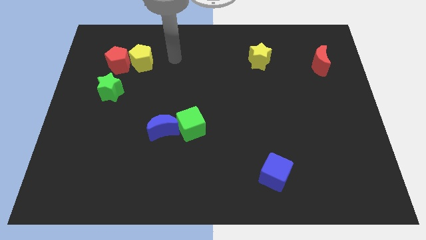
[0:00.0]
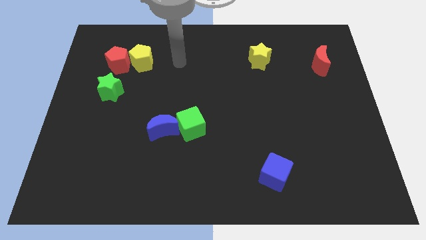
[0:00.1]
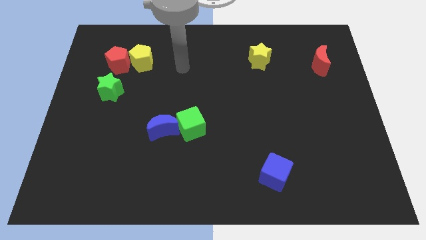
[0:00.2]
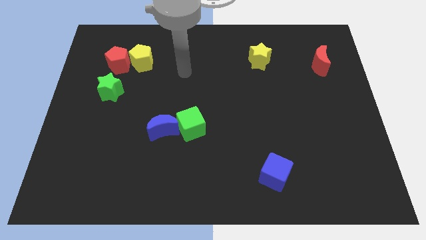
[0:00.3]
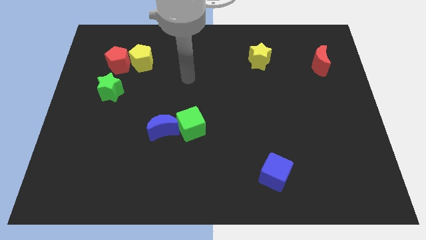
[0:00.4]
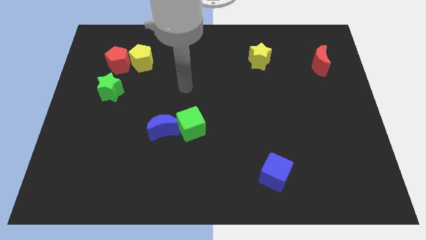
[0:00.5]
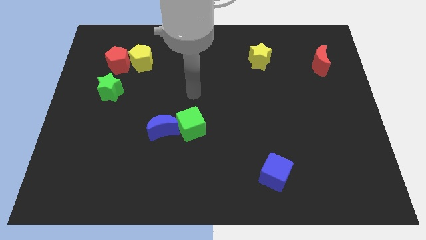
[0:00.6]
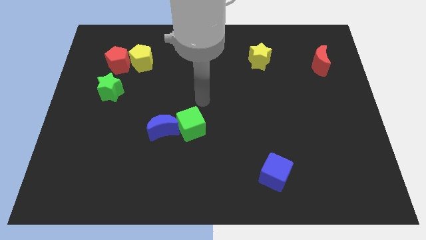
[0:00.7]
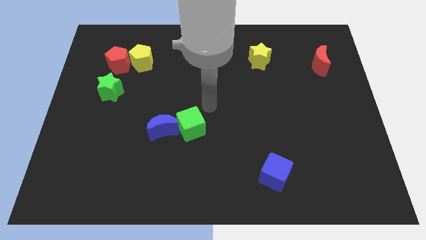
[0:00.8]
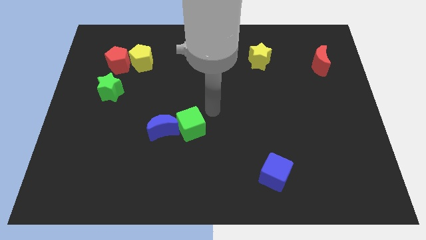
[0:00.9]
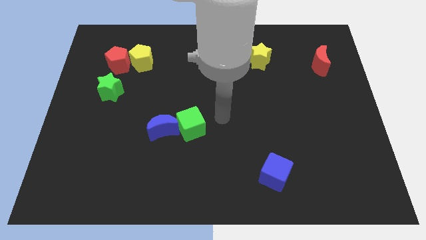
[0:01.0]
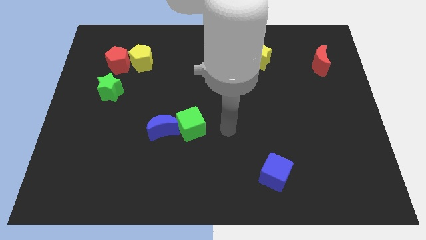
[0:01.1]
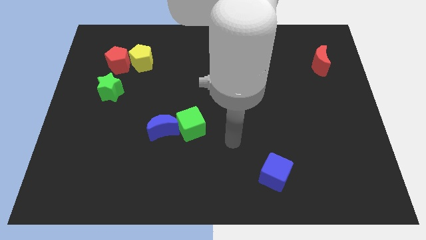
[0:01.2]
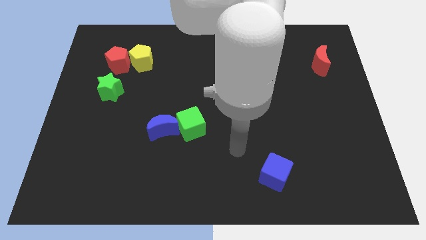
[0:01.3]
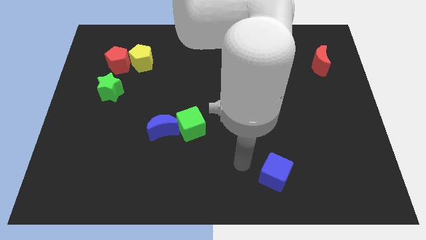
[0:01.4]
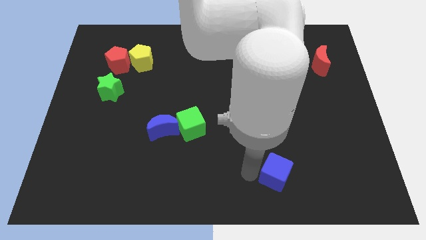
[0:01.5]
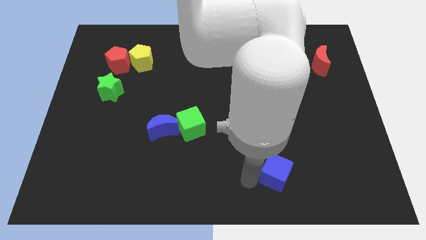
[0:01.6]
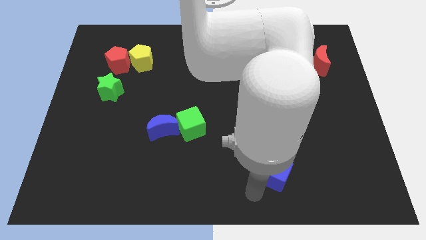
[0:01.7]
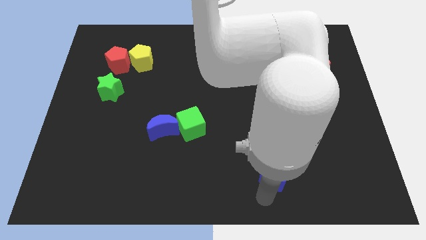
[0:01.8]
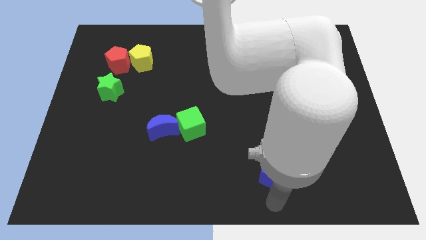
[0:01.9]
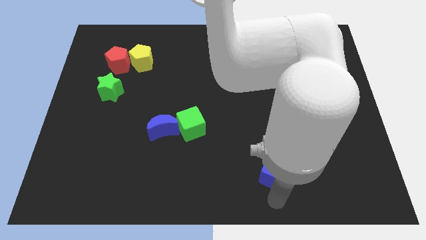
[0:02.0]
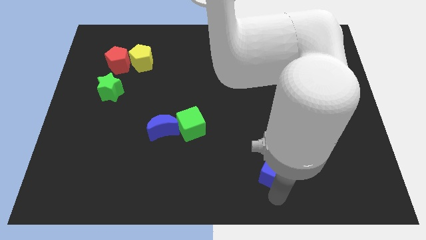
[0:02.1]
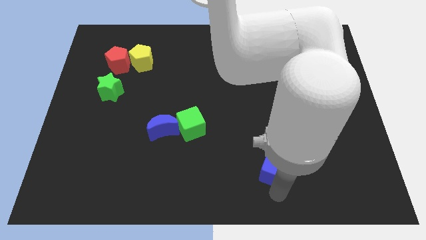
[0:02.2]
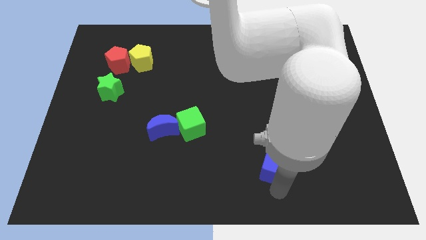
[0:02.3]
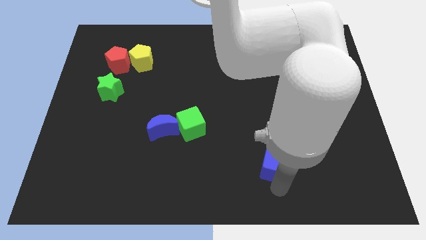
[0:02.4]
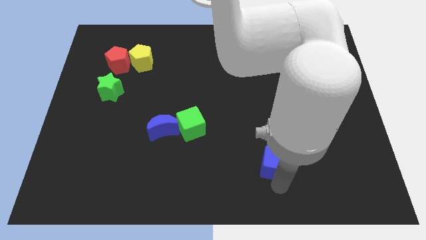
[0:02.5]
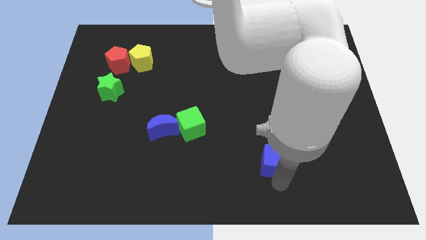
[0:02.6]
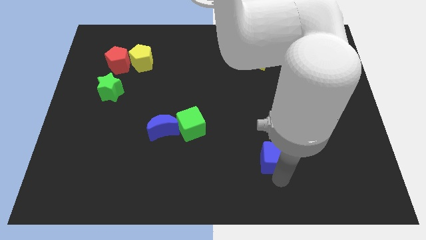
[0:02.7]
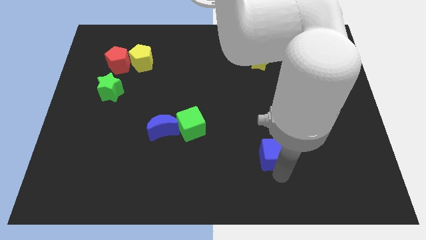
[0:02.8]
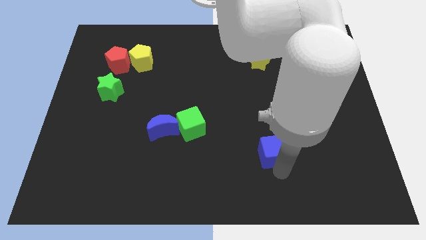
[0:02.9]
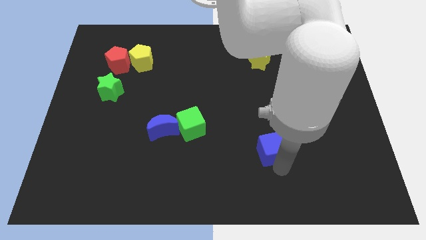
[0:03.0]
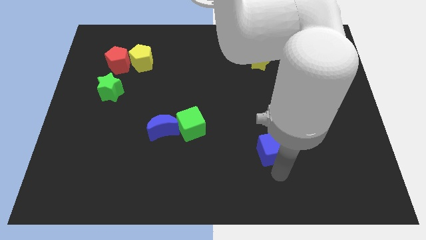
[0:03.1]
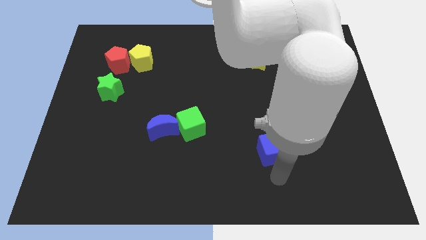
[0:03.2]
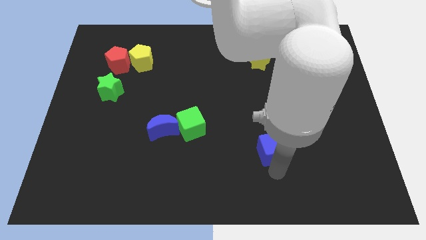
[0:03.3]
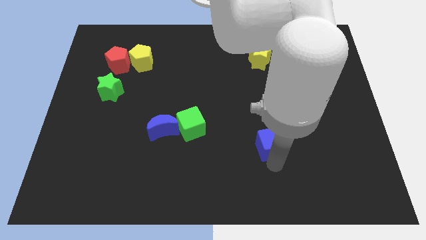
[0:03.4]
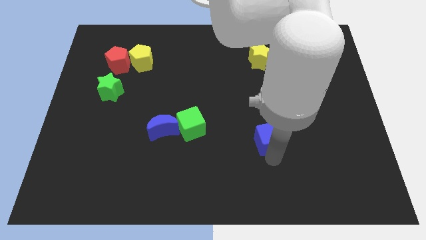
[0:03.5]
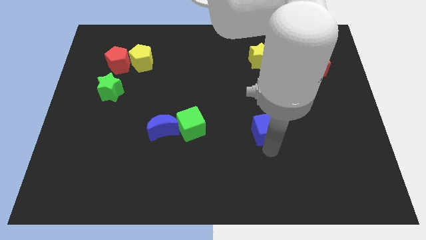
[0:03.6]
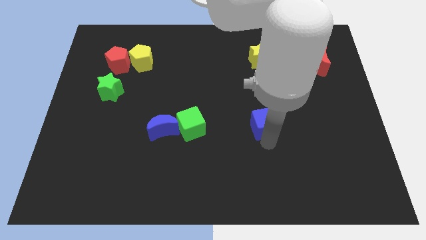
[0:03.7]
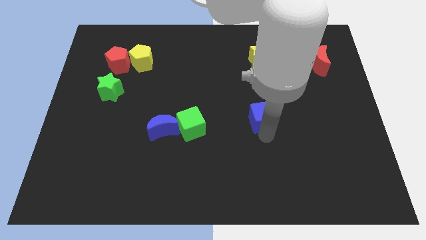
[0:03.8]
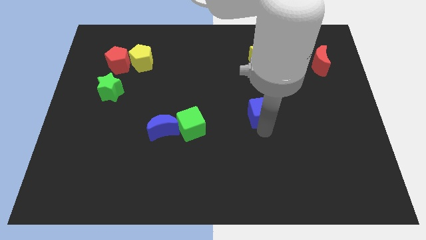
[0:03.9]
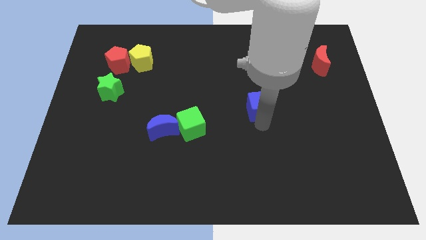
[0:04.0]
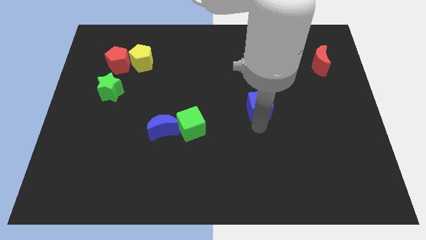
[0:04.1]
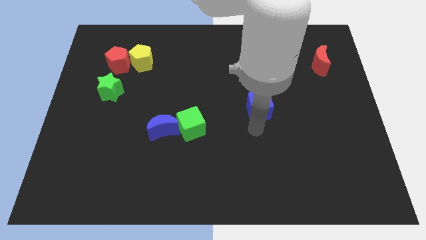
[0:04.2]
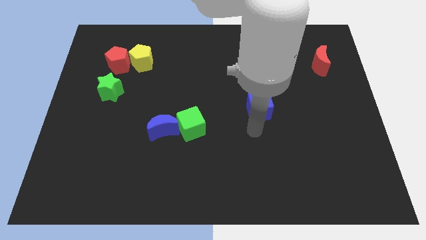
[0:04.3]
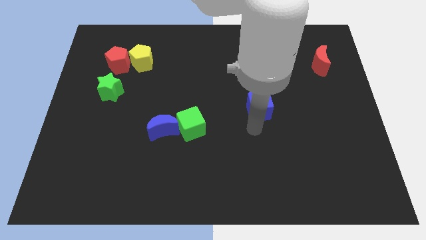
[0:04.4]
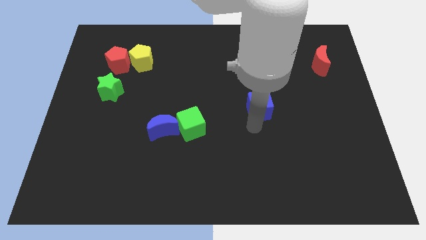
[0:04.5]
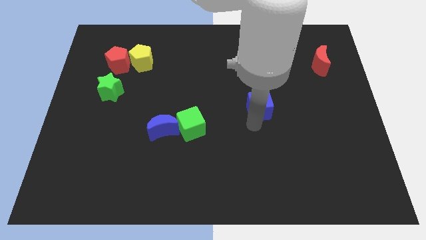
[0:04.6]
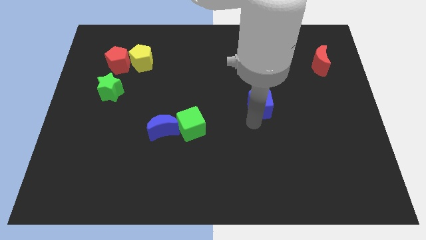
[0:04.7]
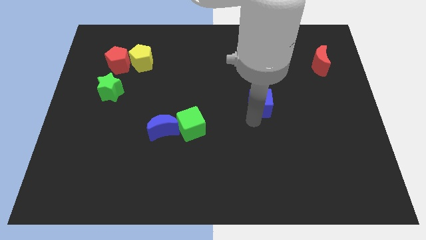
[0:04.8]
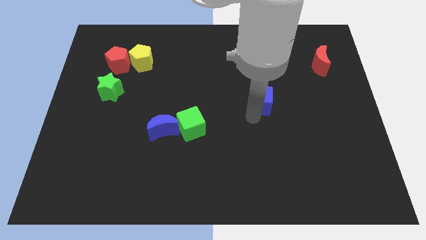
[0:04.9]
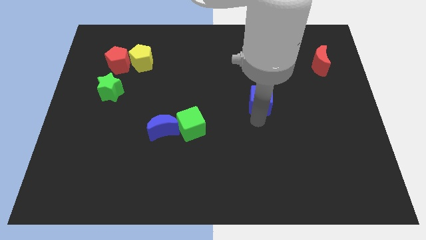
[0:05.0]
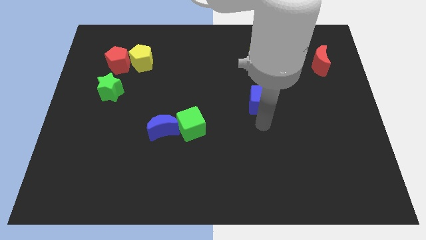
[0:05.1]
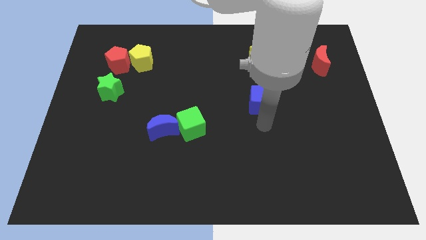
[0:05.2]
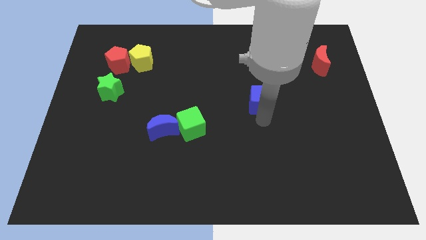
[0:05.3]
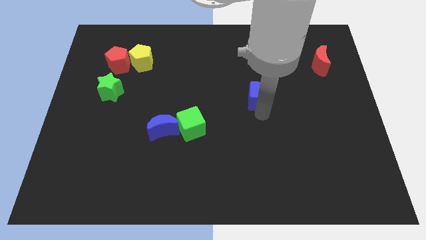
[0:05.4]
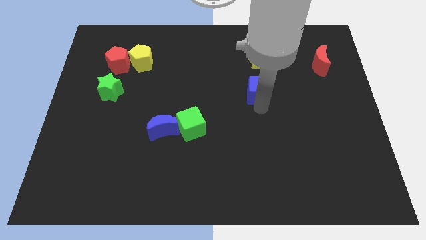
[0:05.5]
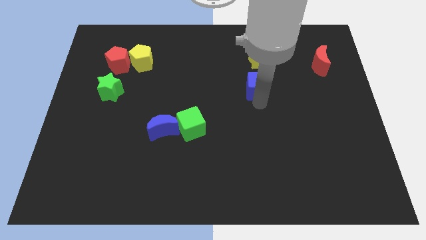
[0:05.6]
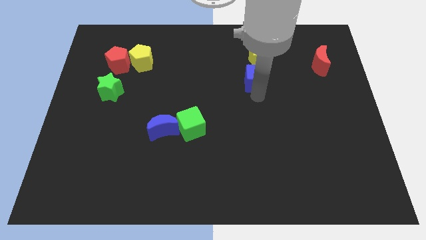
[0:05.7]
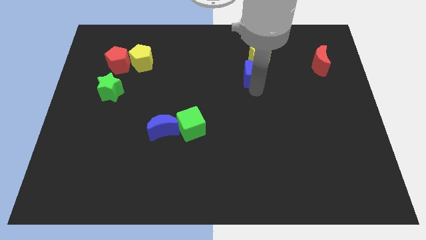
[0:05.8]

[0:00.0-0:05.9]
move the blue cube towards the yellow star

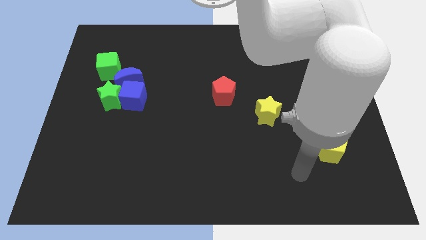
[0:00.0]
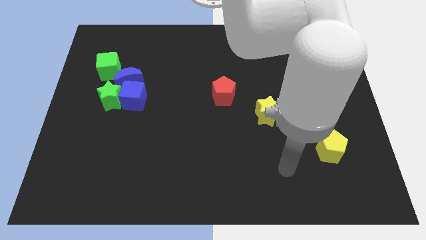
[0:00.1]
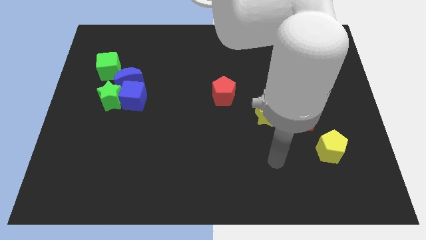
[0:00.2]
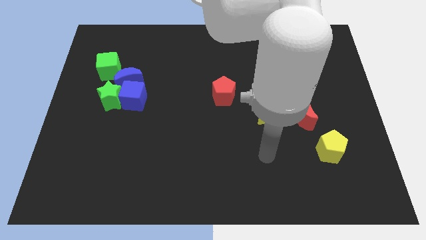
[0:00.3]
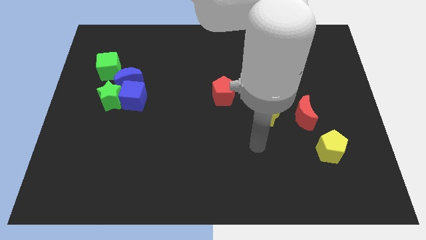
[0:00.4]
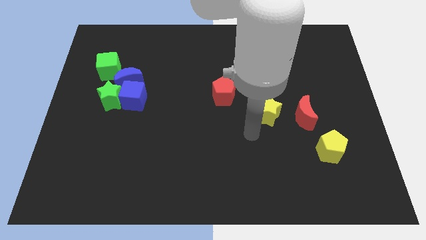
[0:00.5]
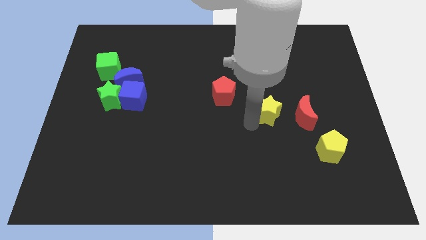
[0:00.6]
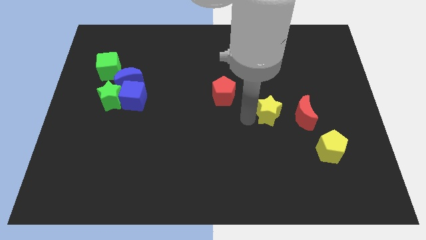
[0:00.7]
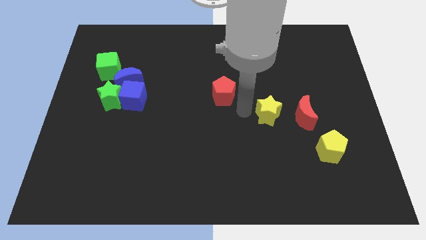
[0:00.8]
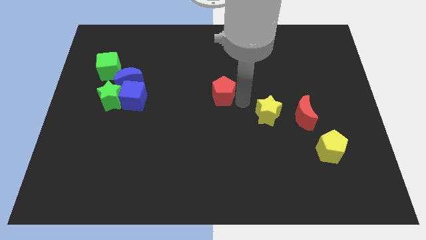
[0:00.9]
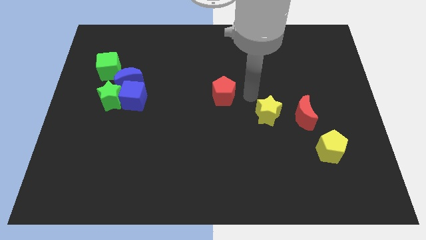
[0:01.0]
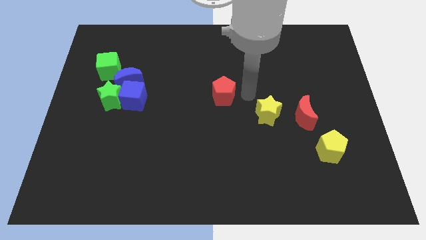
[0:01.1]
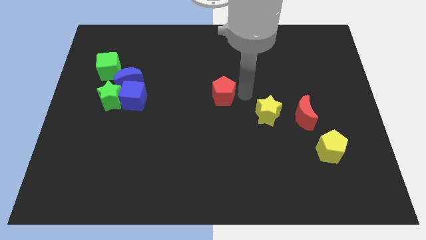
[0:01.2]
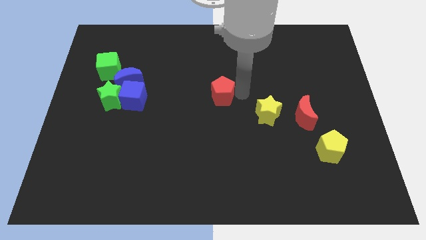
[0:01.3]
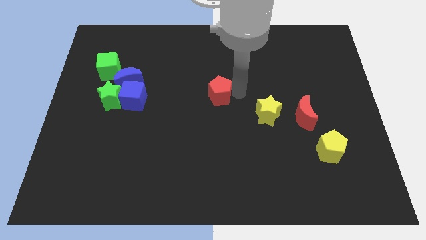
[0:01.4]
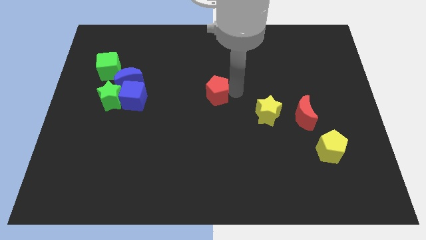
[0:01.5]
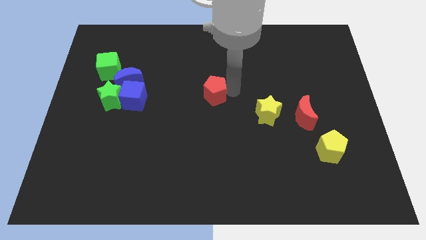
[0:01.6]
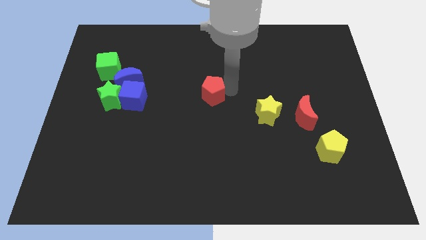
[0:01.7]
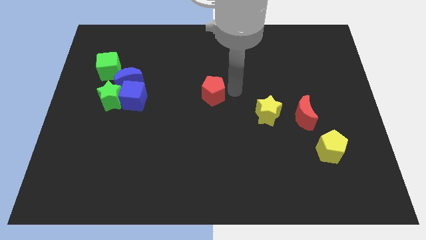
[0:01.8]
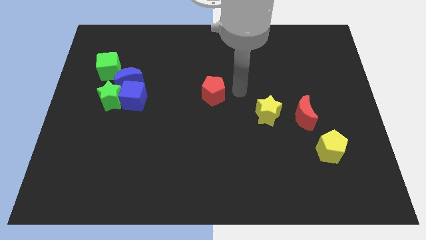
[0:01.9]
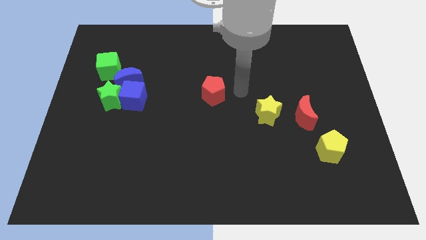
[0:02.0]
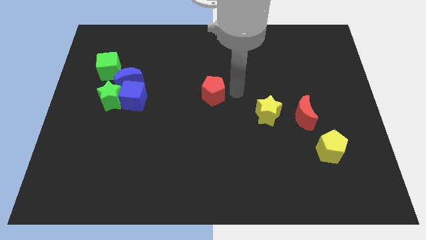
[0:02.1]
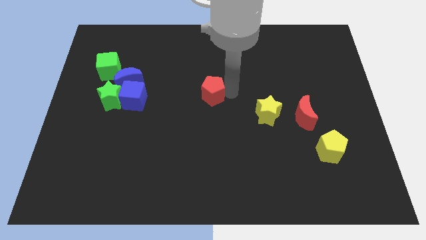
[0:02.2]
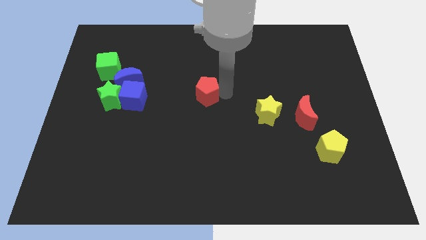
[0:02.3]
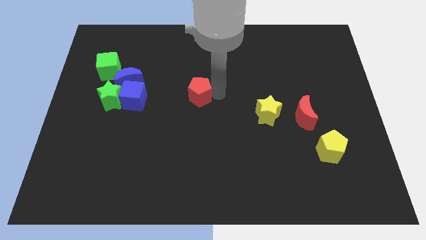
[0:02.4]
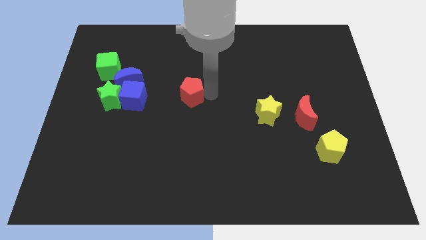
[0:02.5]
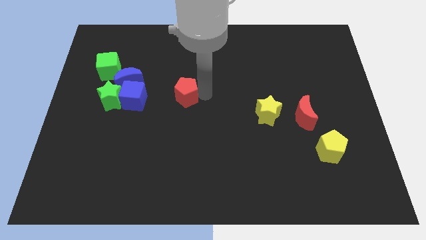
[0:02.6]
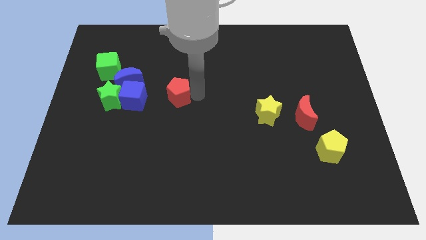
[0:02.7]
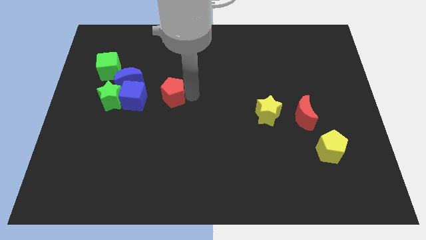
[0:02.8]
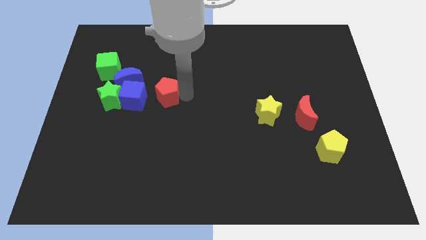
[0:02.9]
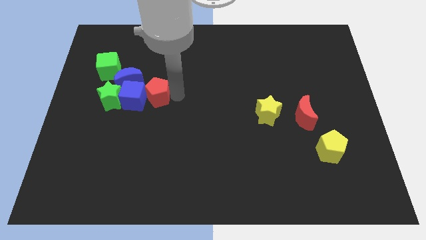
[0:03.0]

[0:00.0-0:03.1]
move the red pentagon towards the blue cube
